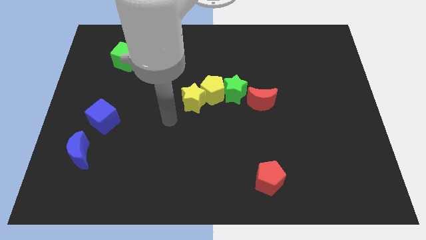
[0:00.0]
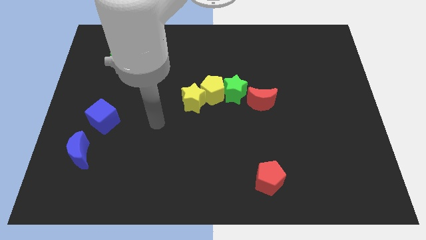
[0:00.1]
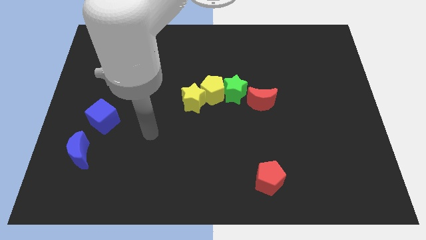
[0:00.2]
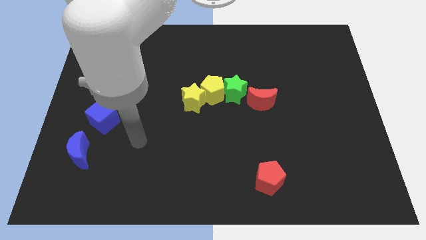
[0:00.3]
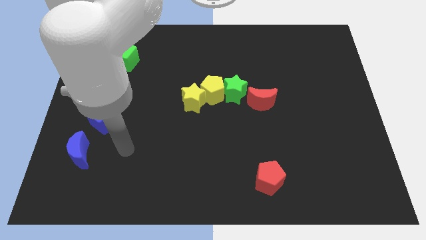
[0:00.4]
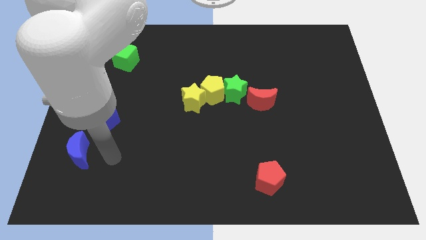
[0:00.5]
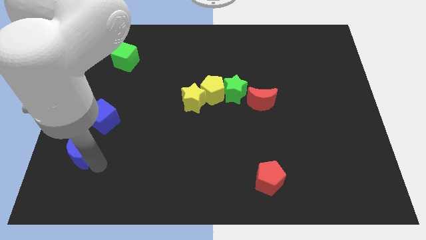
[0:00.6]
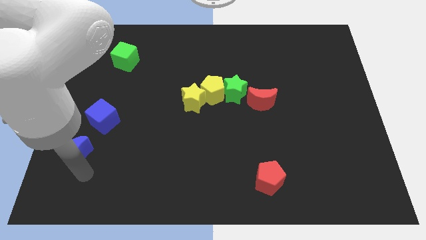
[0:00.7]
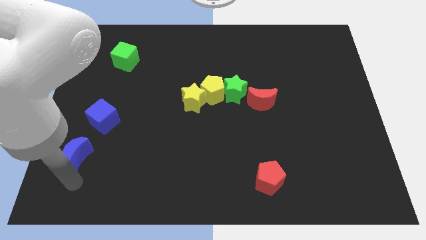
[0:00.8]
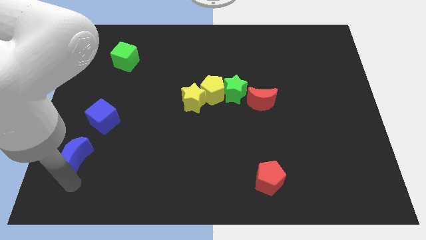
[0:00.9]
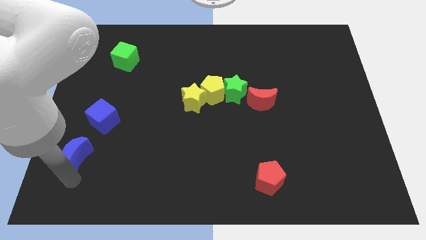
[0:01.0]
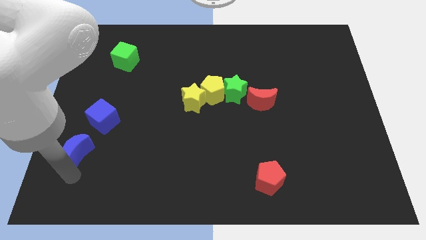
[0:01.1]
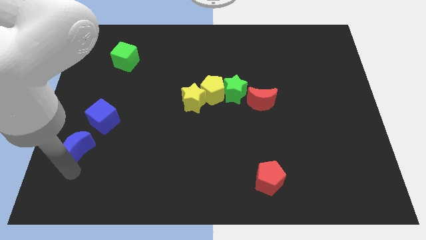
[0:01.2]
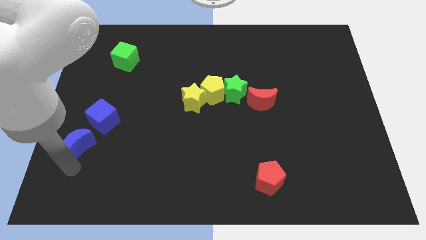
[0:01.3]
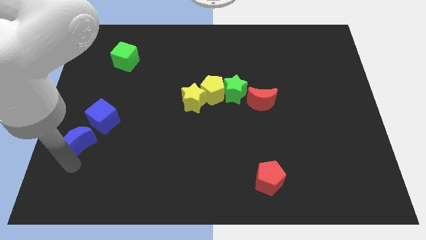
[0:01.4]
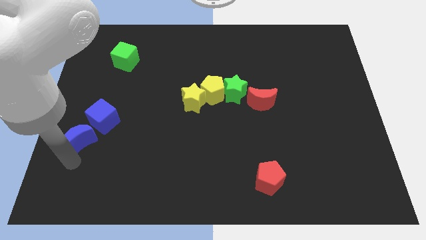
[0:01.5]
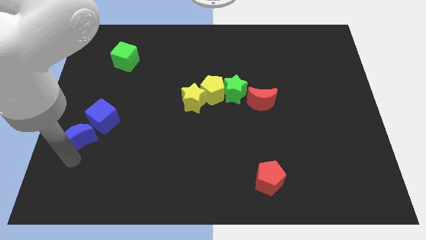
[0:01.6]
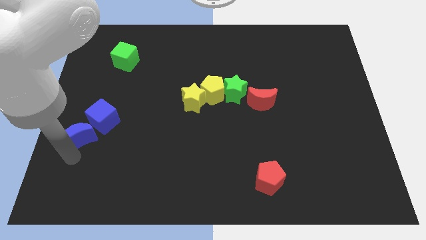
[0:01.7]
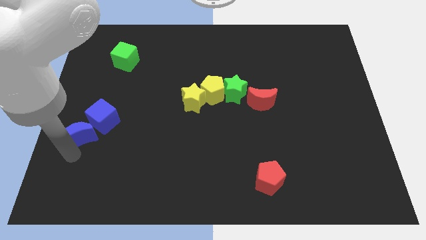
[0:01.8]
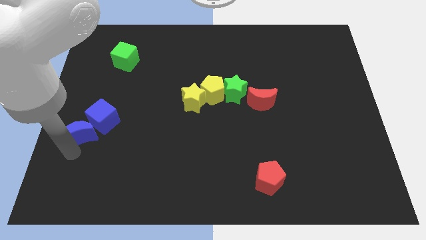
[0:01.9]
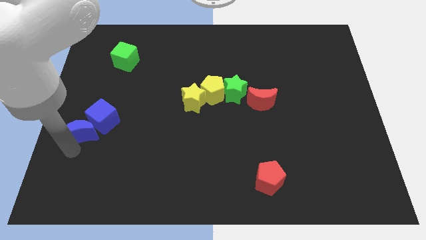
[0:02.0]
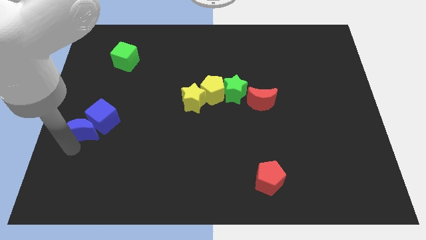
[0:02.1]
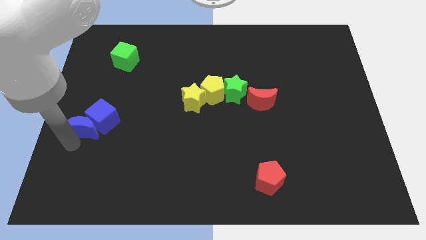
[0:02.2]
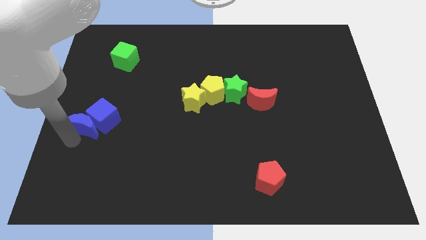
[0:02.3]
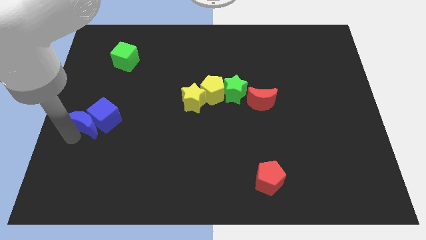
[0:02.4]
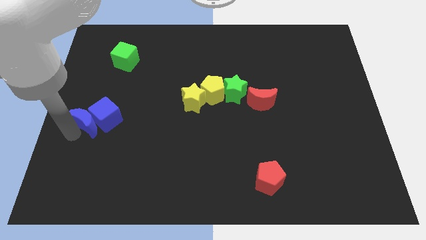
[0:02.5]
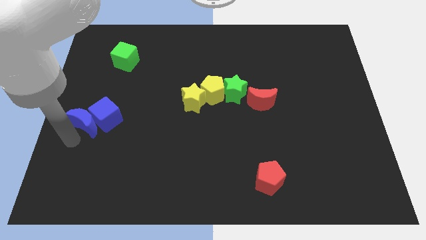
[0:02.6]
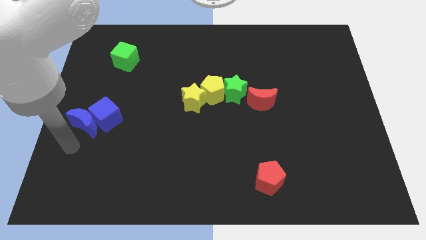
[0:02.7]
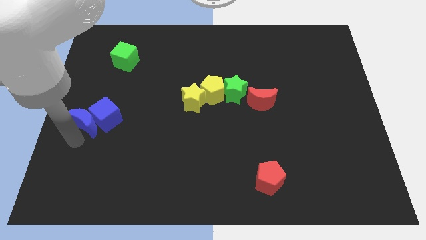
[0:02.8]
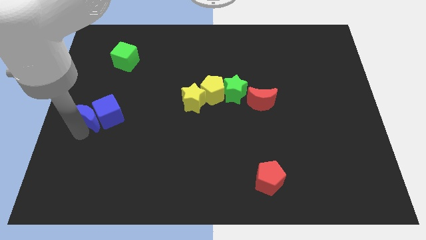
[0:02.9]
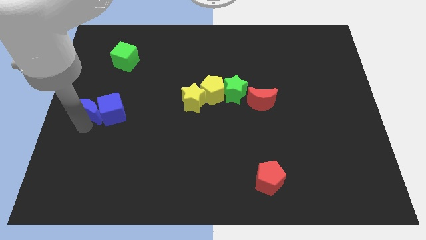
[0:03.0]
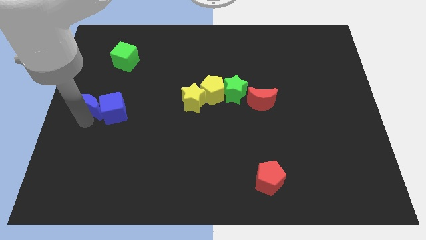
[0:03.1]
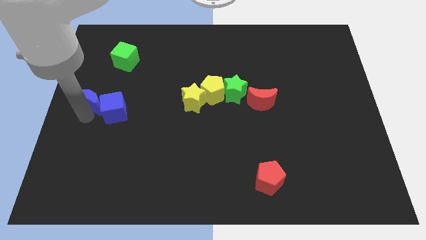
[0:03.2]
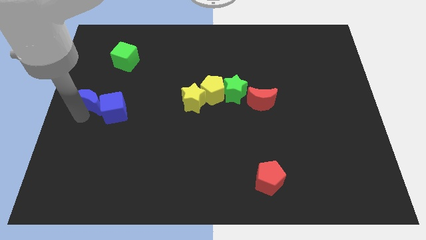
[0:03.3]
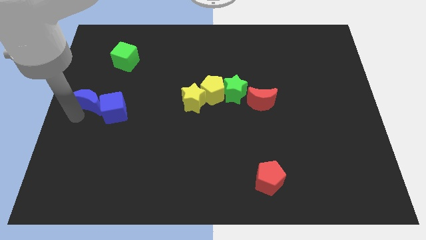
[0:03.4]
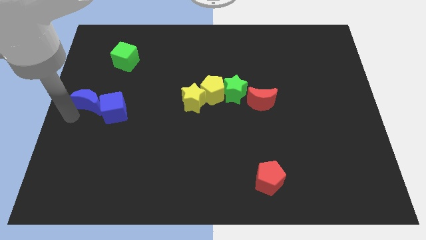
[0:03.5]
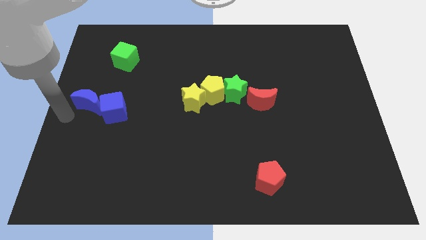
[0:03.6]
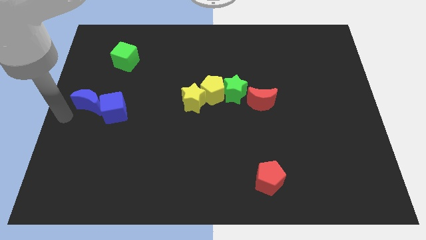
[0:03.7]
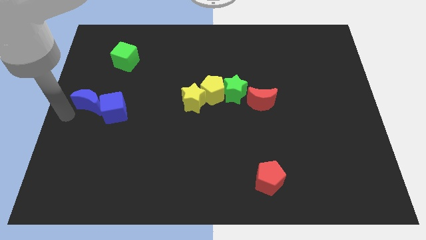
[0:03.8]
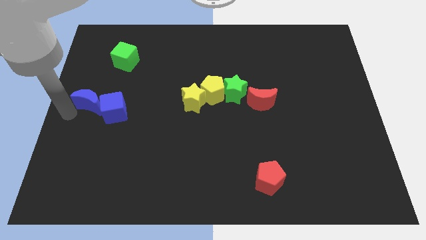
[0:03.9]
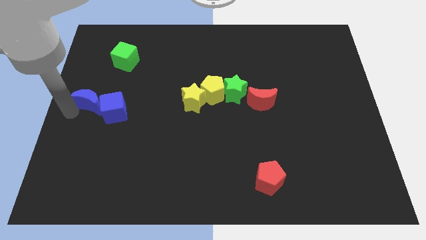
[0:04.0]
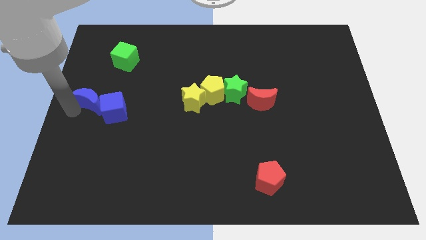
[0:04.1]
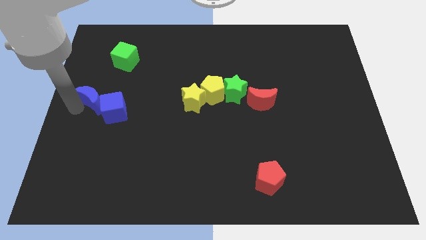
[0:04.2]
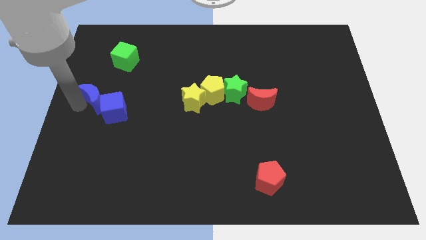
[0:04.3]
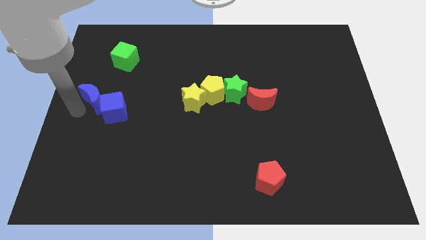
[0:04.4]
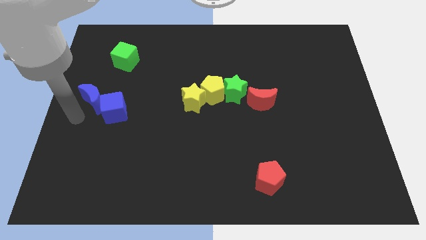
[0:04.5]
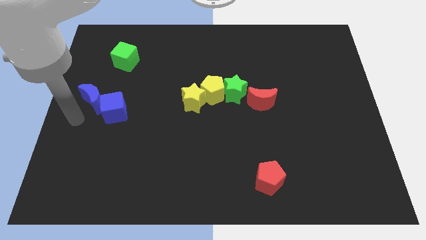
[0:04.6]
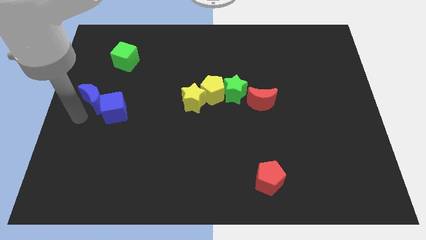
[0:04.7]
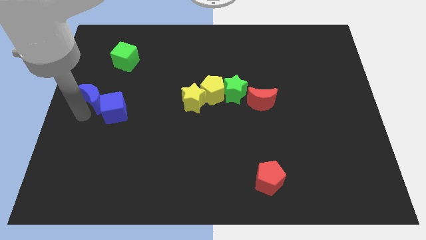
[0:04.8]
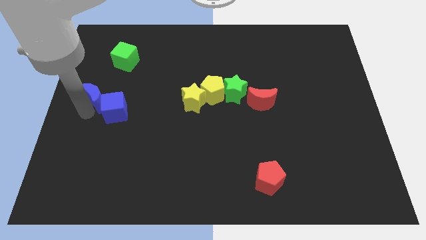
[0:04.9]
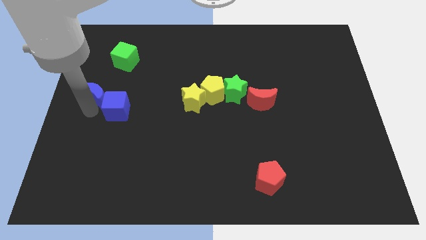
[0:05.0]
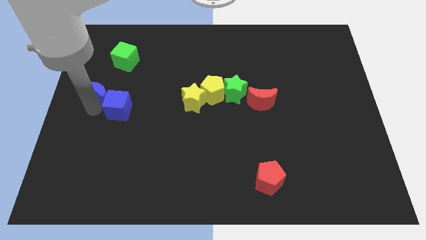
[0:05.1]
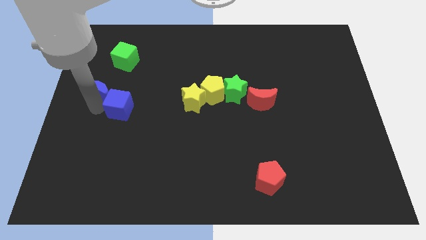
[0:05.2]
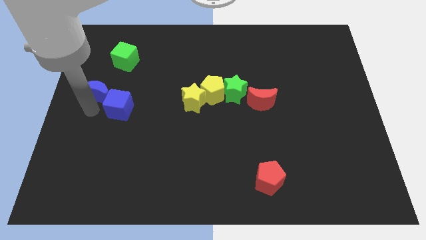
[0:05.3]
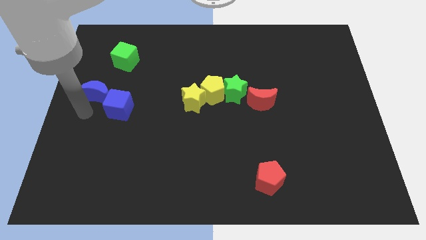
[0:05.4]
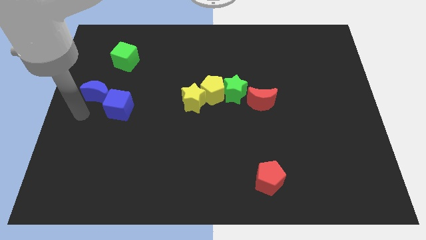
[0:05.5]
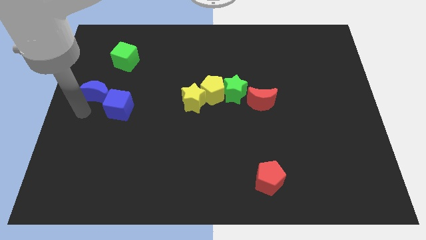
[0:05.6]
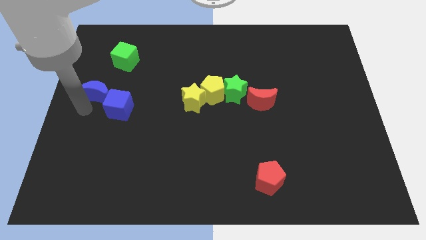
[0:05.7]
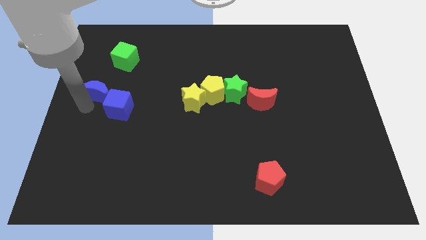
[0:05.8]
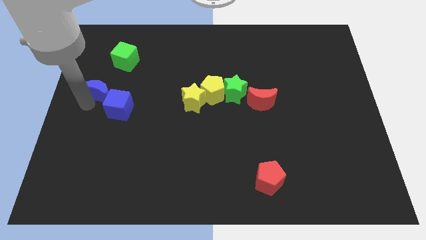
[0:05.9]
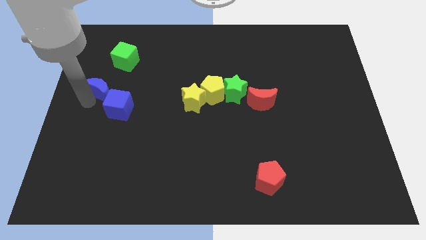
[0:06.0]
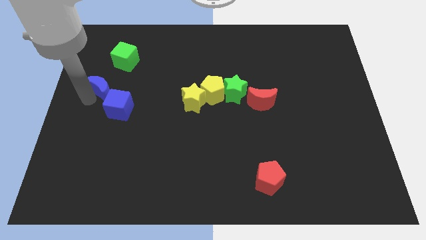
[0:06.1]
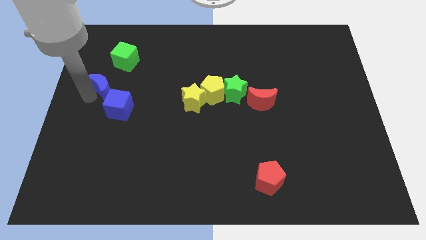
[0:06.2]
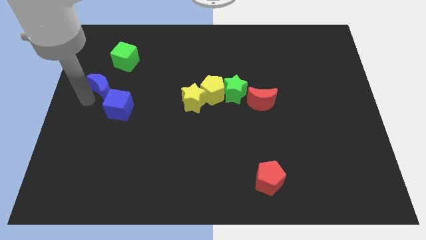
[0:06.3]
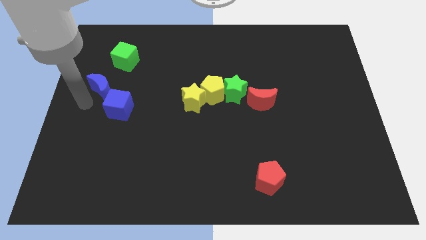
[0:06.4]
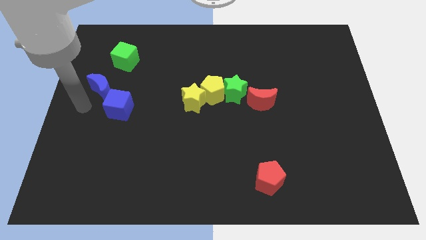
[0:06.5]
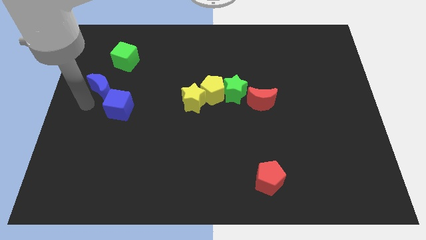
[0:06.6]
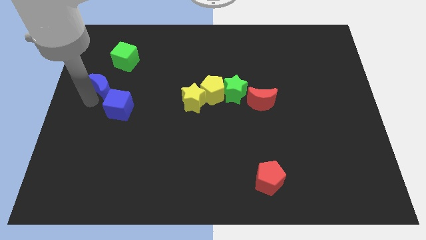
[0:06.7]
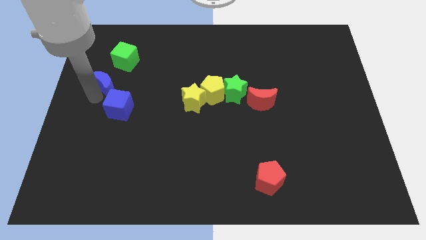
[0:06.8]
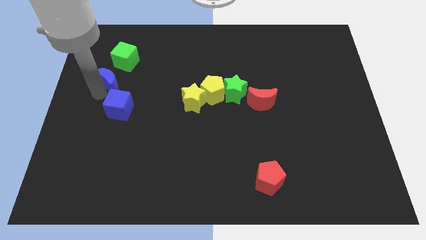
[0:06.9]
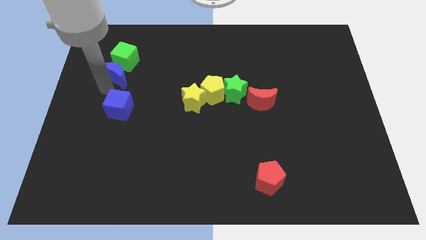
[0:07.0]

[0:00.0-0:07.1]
move the blue moon next to the green cube
